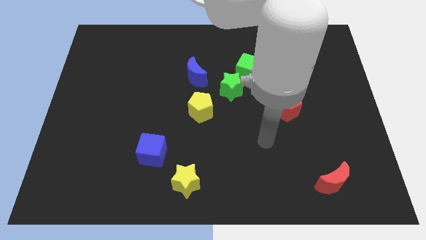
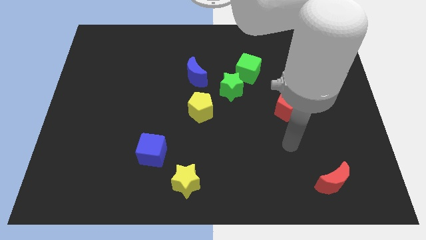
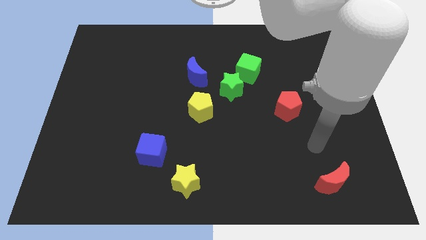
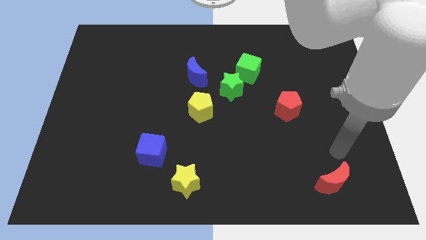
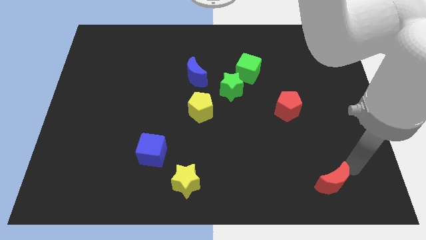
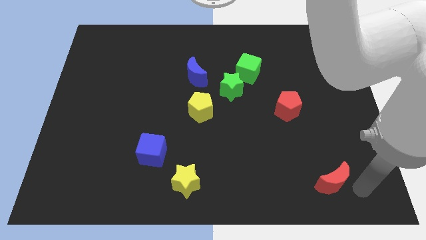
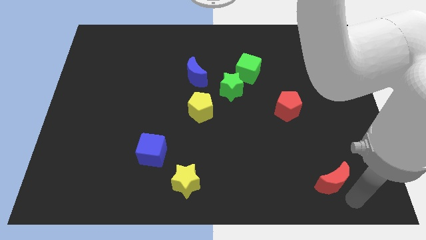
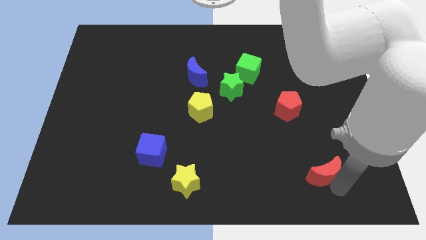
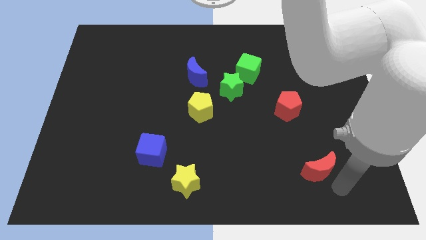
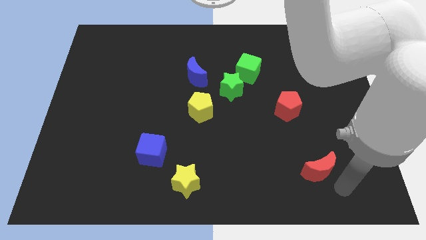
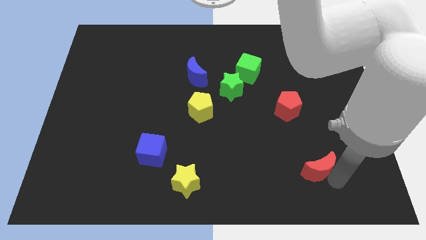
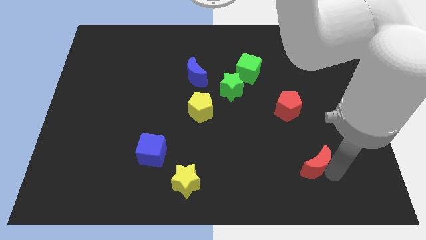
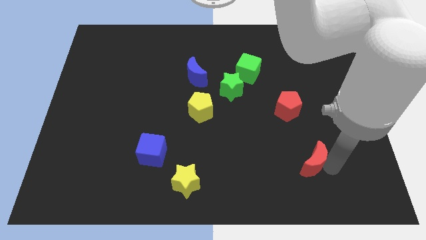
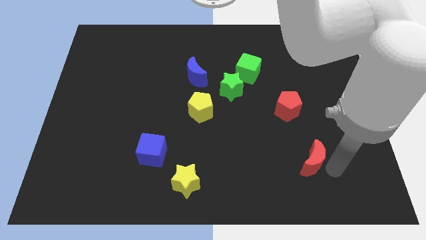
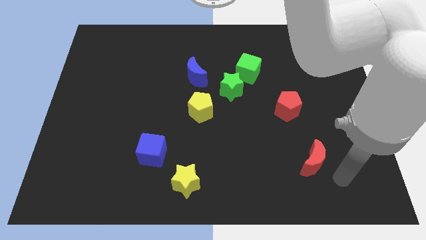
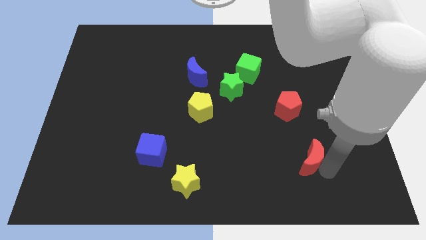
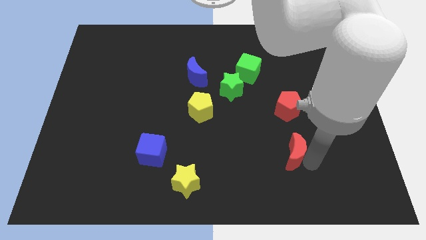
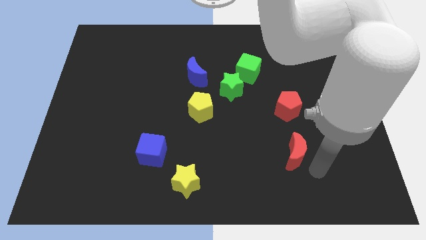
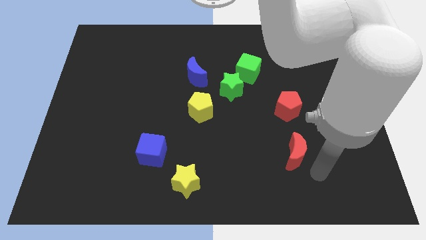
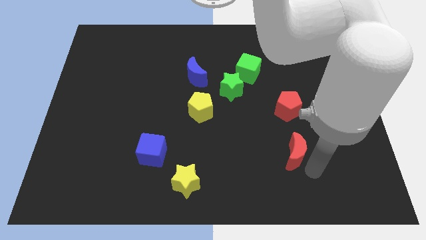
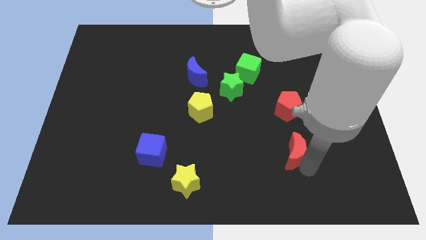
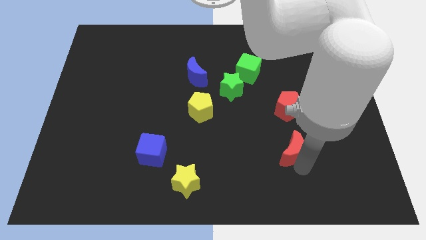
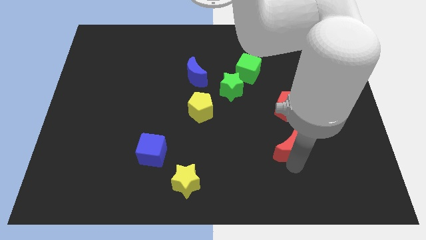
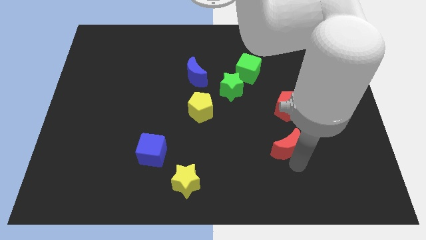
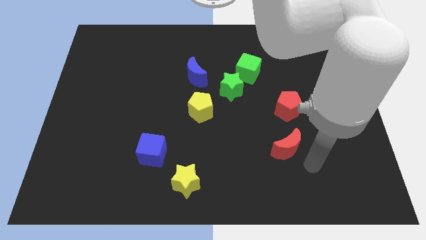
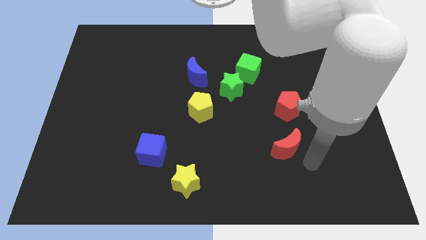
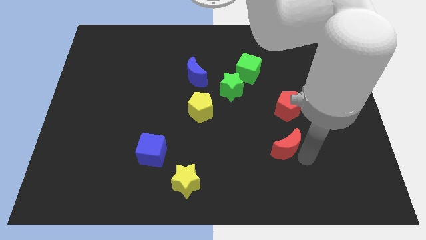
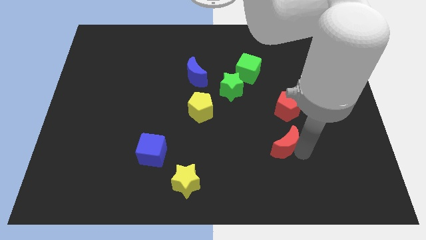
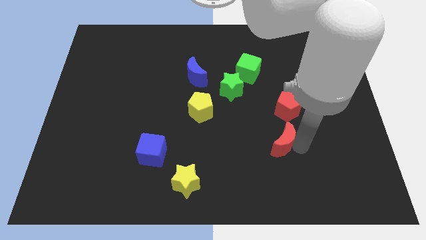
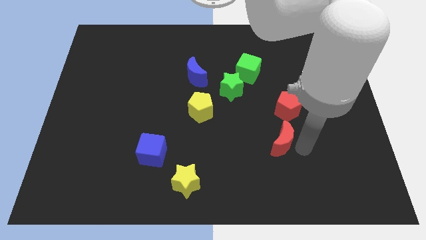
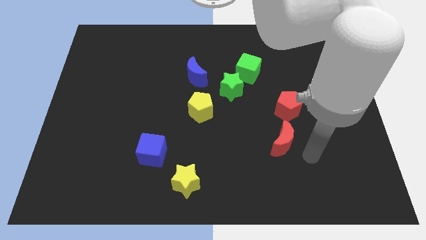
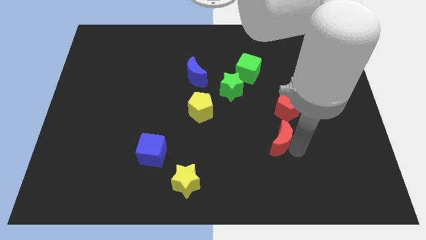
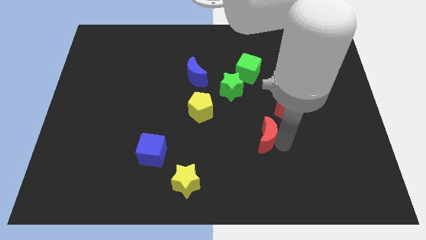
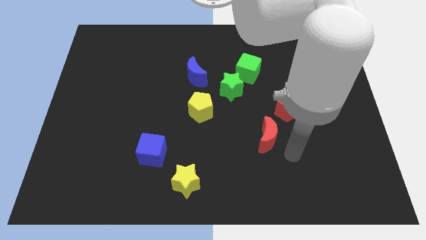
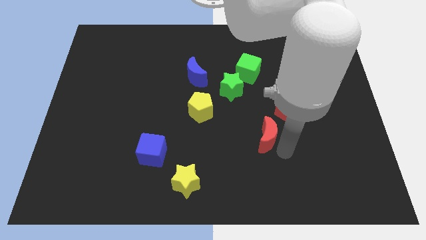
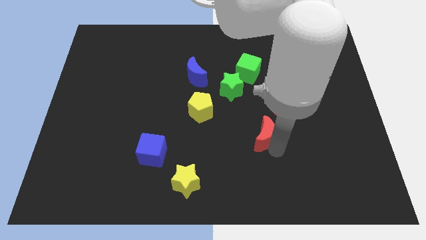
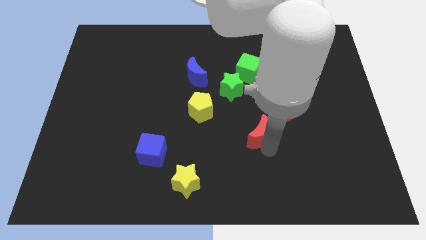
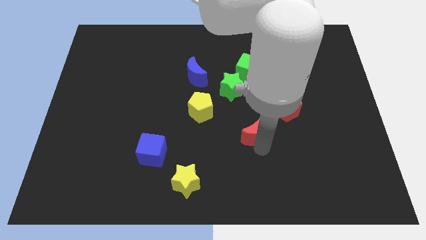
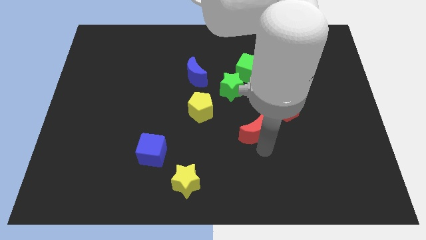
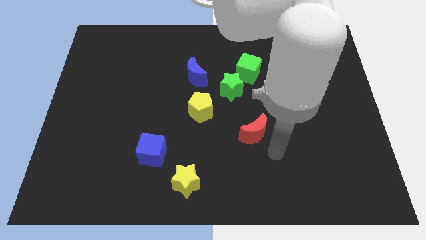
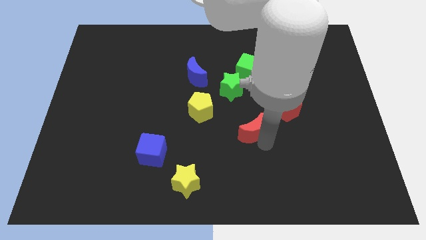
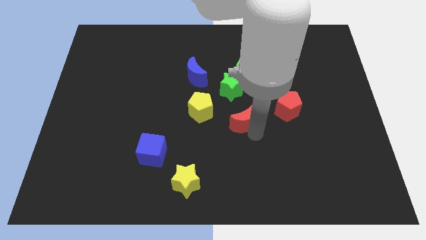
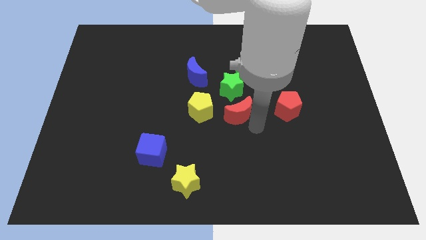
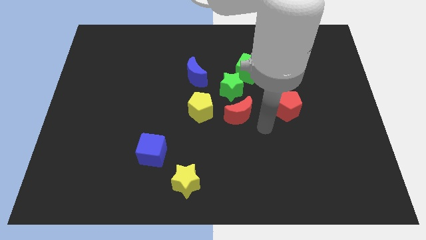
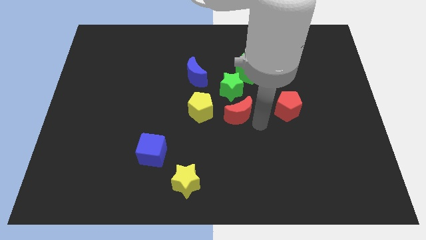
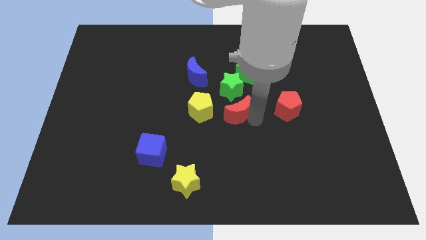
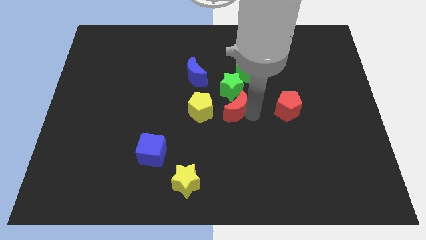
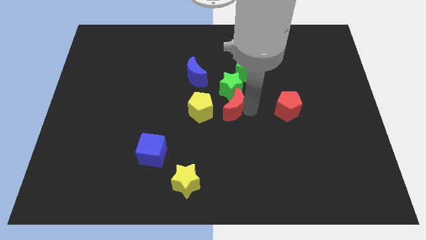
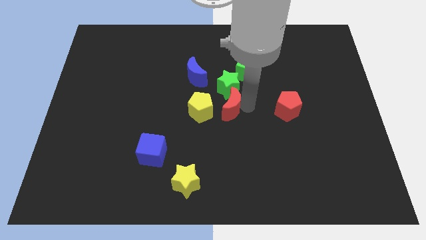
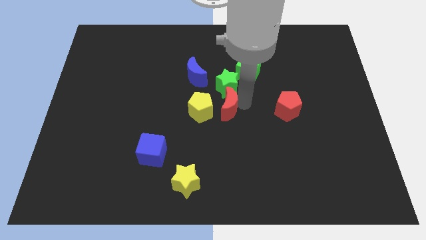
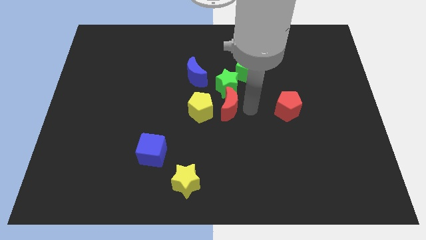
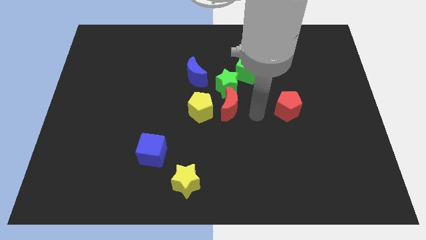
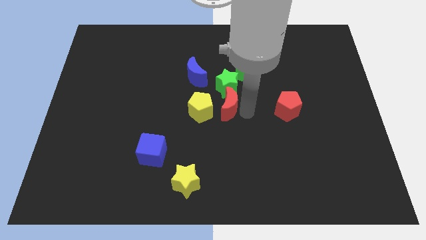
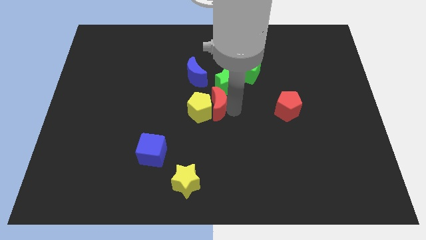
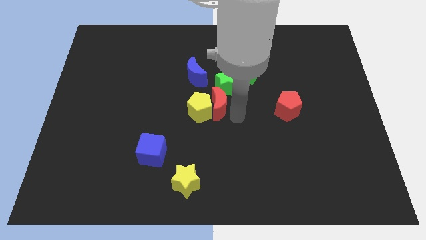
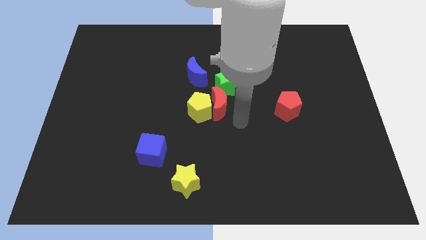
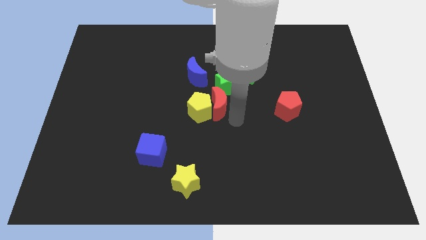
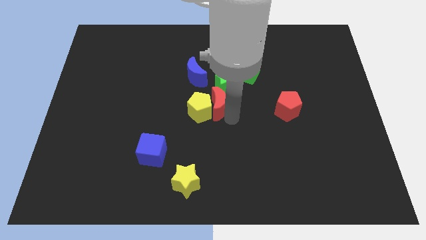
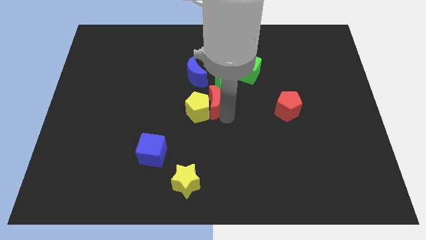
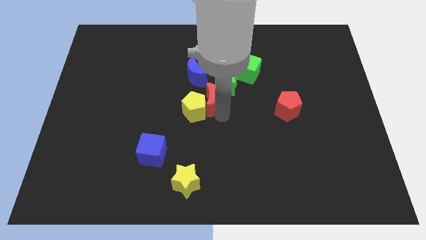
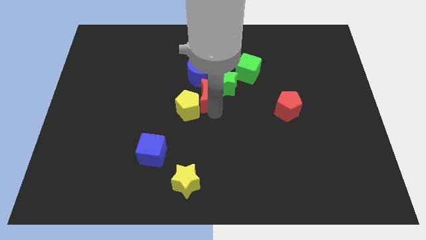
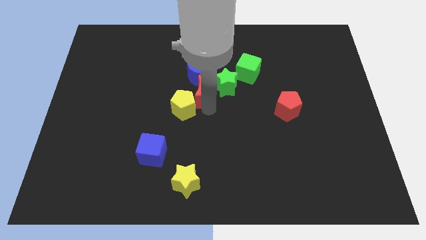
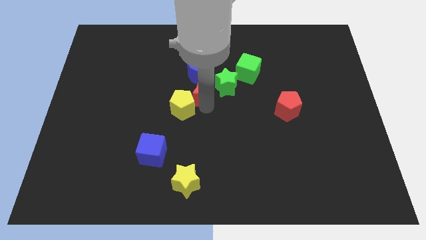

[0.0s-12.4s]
move the red moon to the blue moon

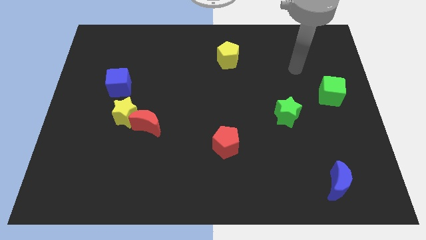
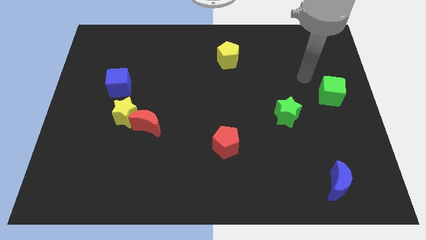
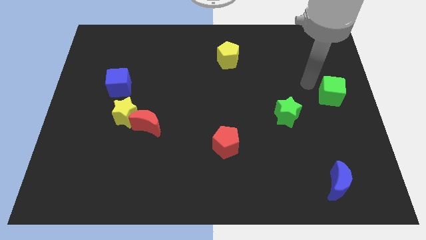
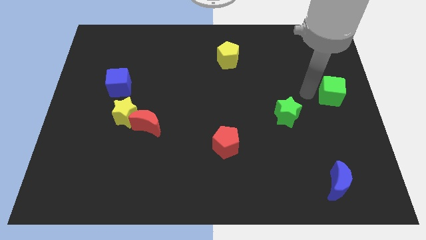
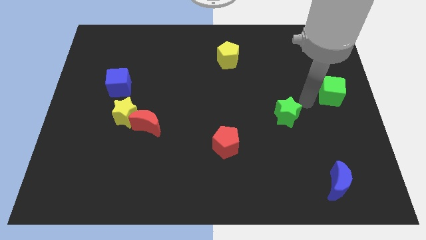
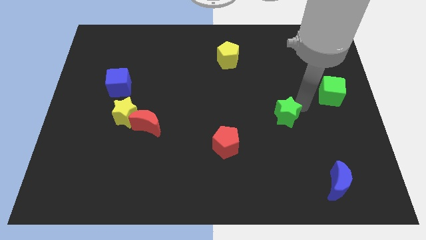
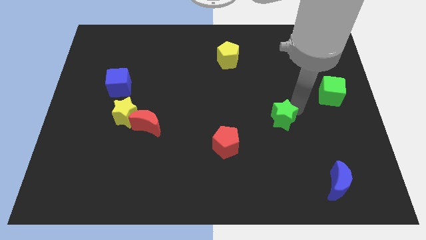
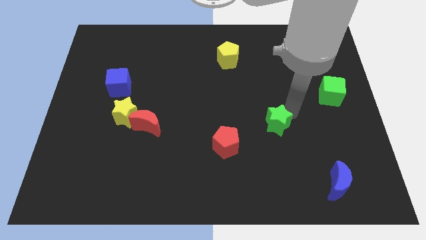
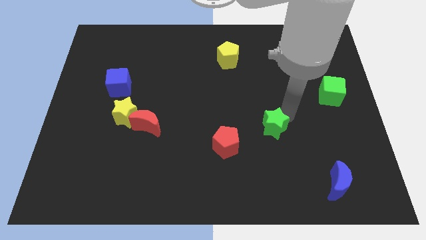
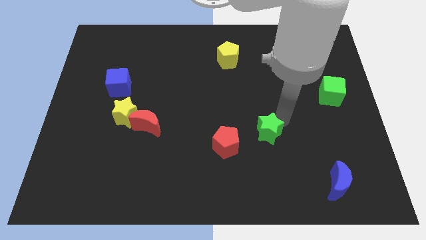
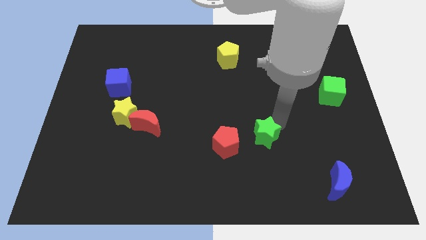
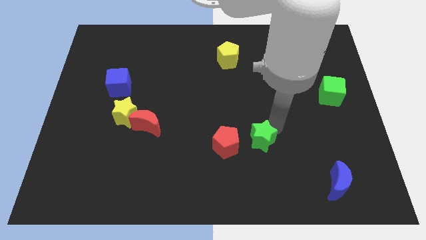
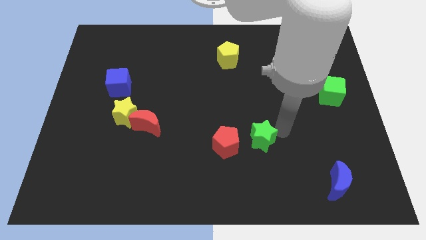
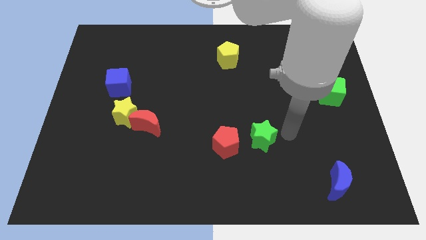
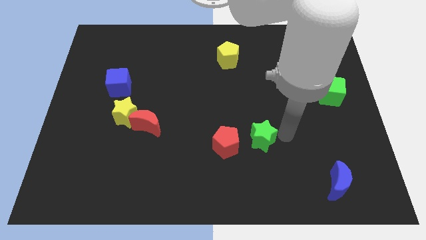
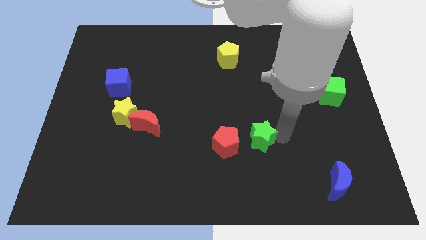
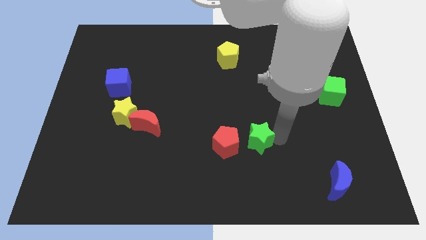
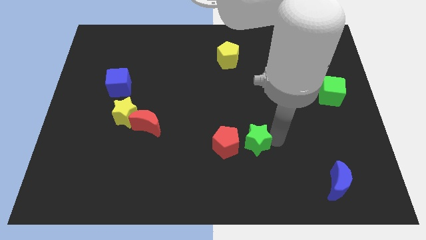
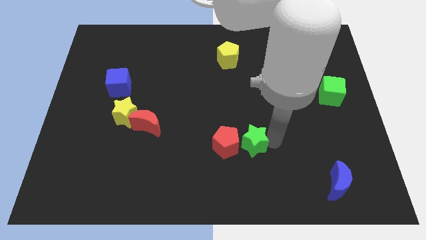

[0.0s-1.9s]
move the green star to the red pentagon
